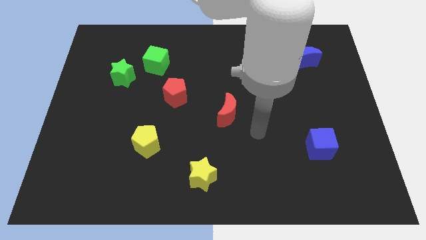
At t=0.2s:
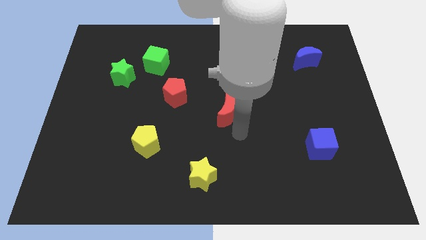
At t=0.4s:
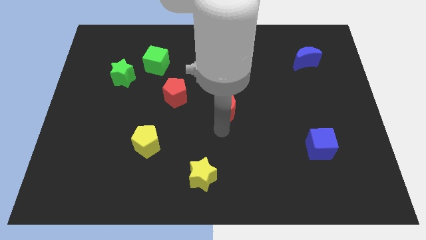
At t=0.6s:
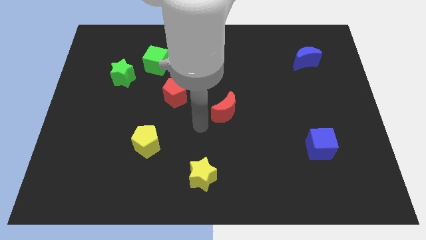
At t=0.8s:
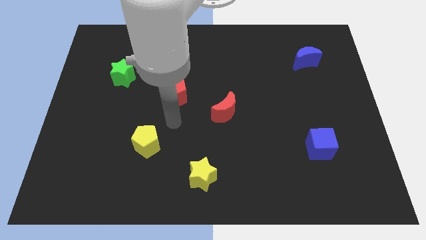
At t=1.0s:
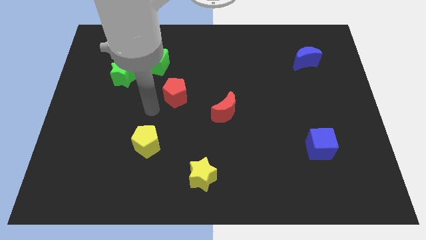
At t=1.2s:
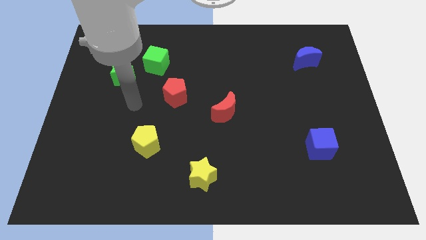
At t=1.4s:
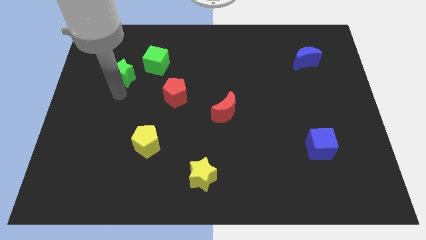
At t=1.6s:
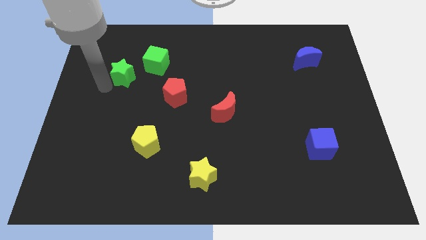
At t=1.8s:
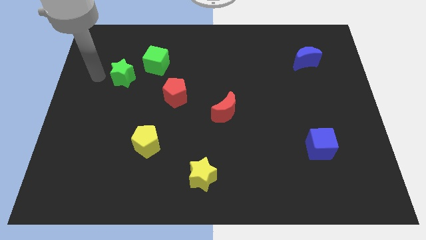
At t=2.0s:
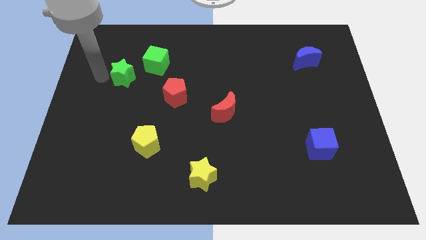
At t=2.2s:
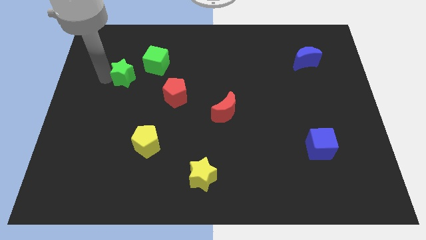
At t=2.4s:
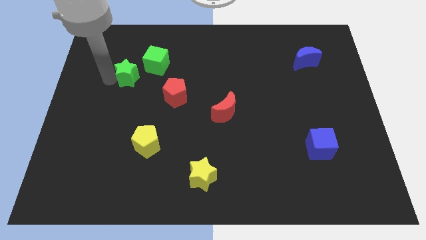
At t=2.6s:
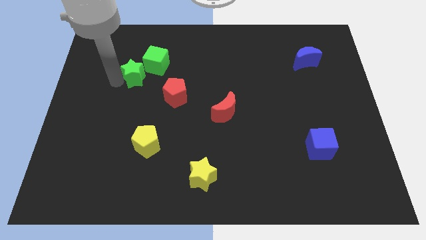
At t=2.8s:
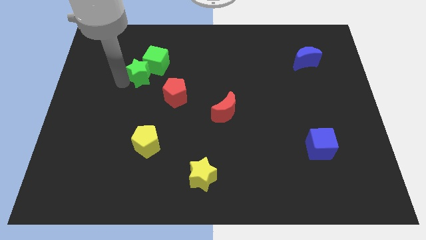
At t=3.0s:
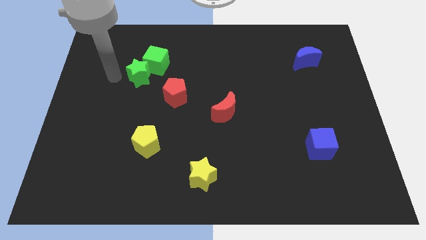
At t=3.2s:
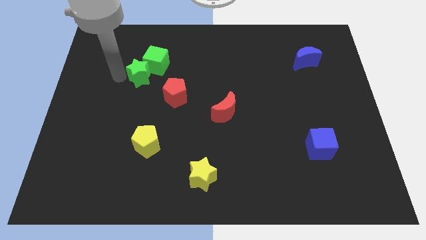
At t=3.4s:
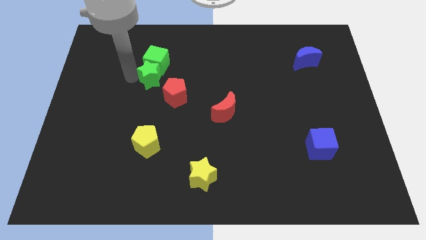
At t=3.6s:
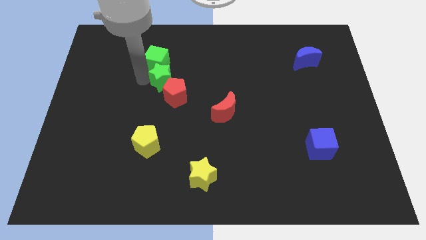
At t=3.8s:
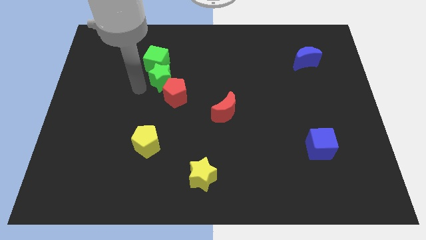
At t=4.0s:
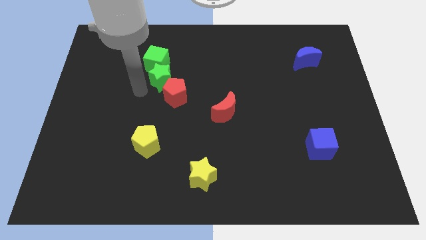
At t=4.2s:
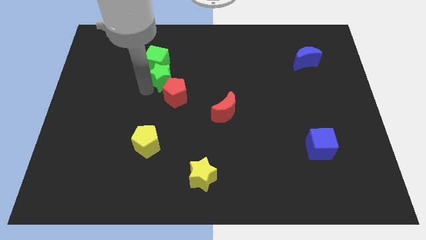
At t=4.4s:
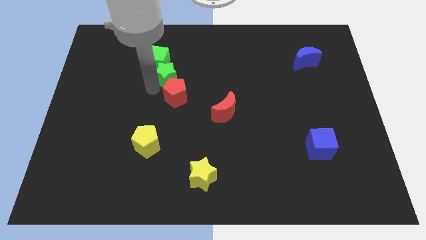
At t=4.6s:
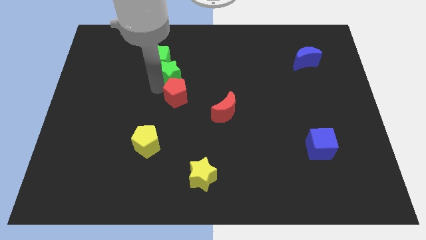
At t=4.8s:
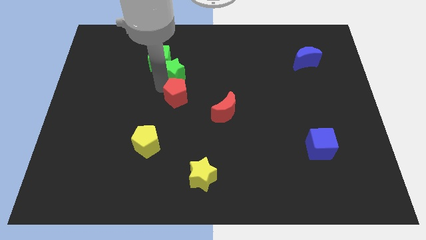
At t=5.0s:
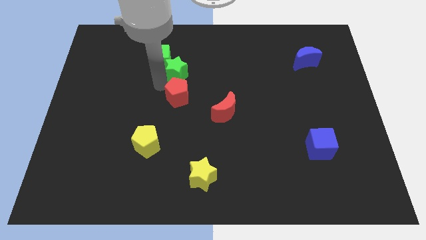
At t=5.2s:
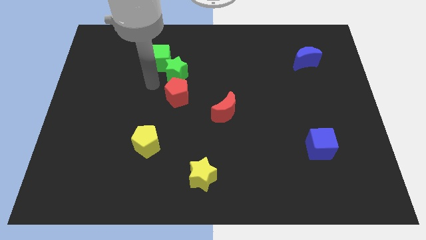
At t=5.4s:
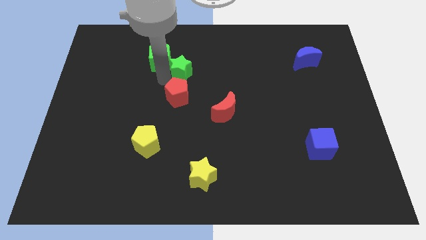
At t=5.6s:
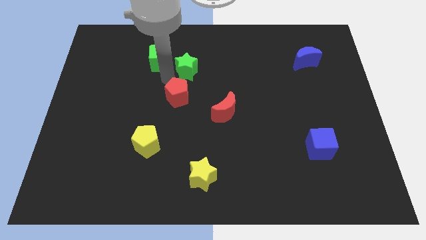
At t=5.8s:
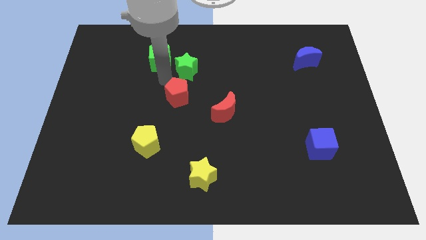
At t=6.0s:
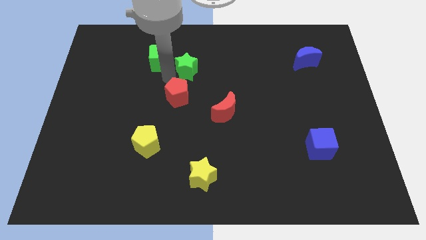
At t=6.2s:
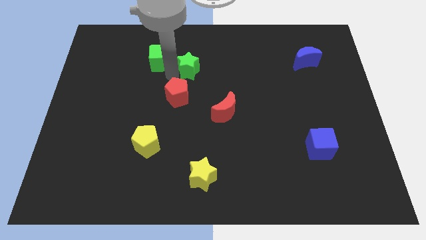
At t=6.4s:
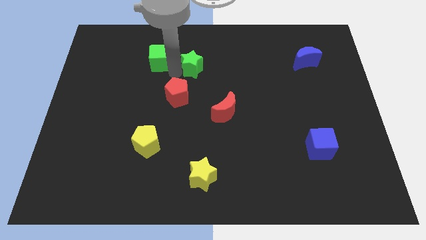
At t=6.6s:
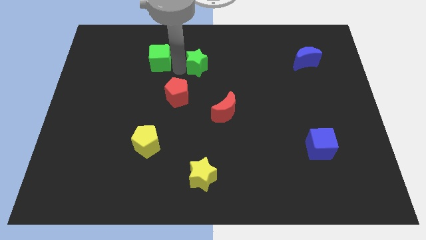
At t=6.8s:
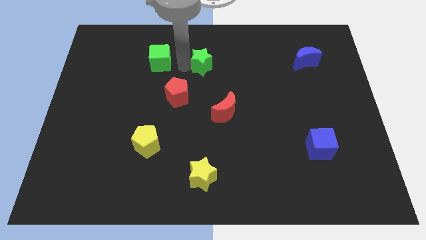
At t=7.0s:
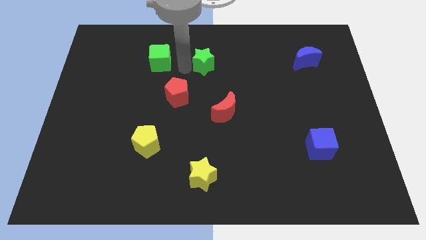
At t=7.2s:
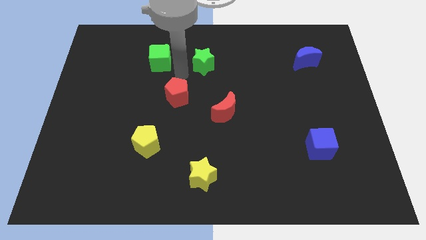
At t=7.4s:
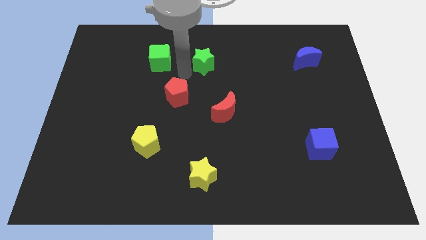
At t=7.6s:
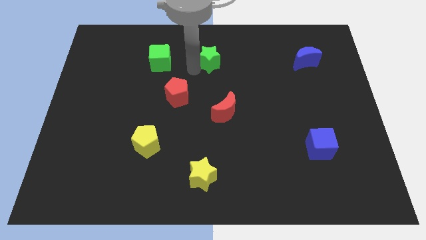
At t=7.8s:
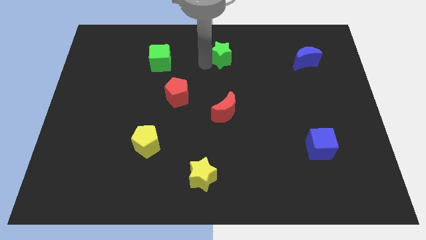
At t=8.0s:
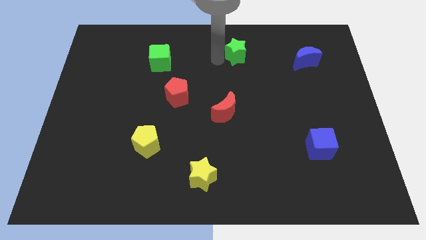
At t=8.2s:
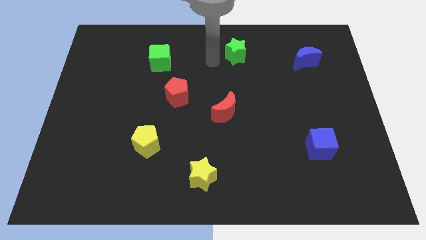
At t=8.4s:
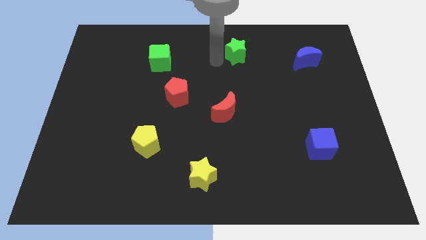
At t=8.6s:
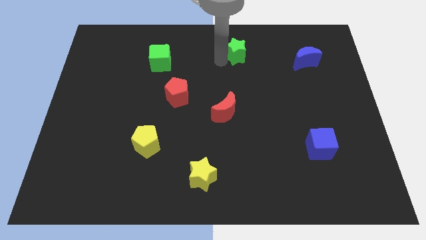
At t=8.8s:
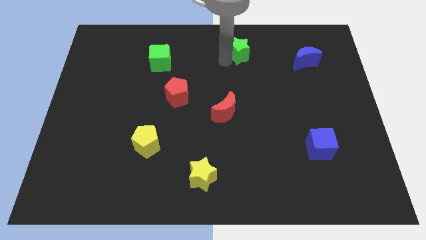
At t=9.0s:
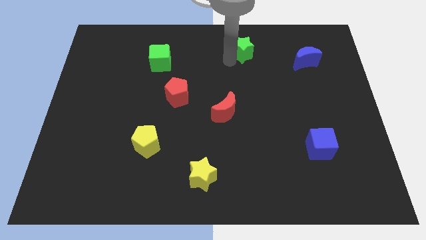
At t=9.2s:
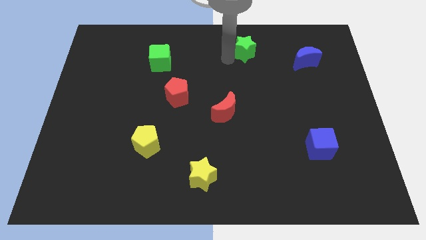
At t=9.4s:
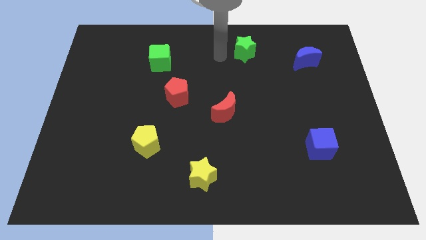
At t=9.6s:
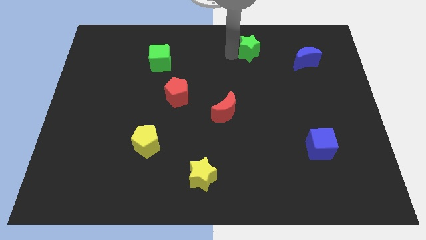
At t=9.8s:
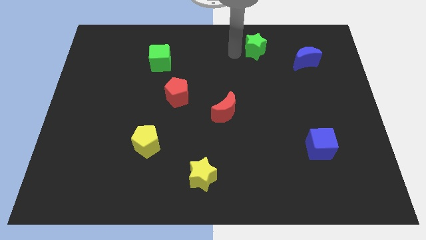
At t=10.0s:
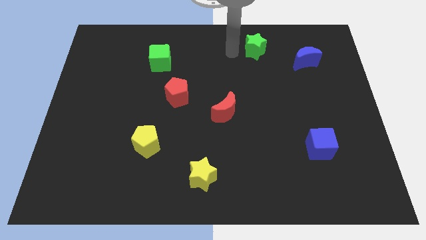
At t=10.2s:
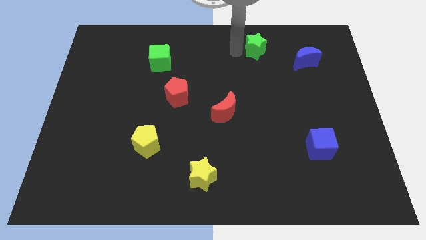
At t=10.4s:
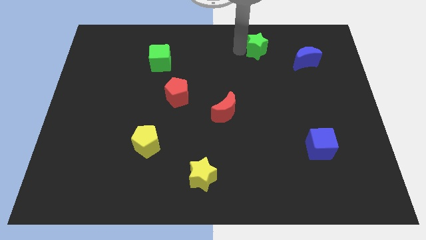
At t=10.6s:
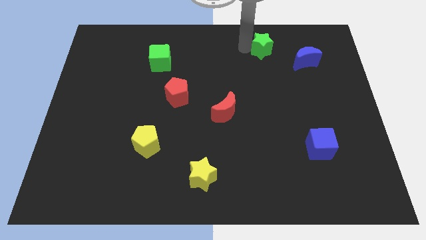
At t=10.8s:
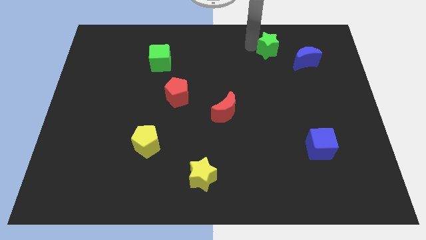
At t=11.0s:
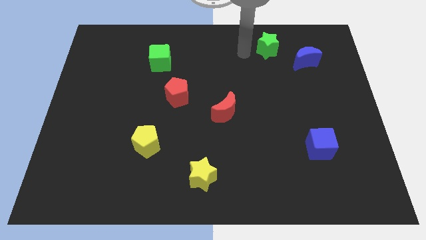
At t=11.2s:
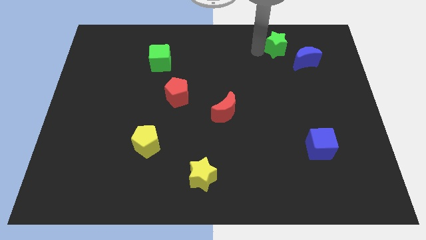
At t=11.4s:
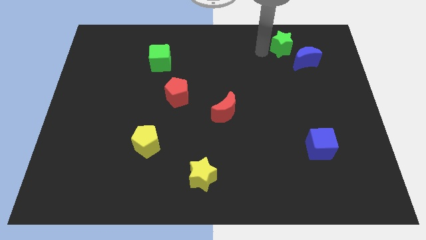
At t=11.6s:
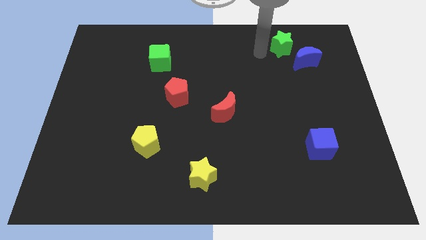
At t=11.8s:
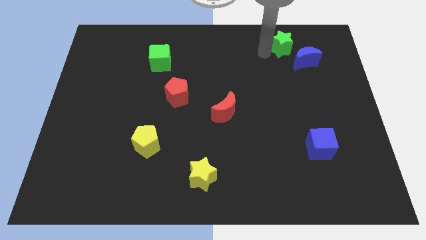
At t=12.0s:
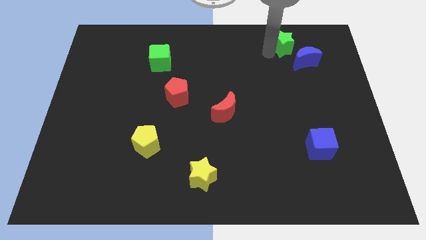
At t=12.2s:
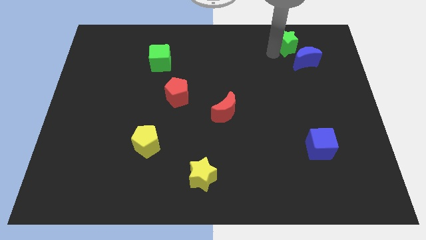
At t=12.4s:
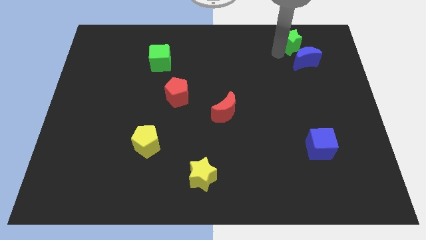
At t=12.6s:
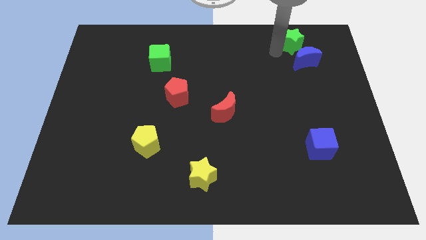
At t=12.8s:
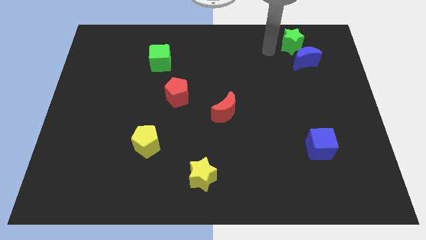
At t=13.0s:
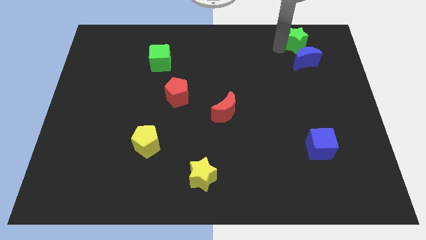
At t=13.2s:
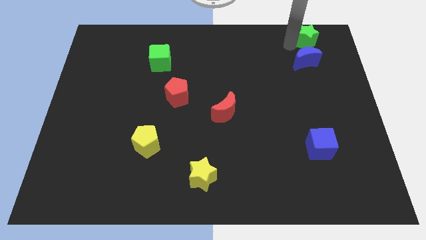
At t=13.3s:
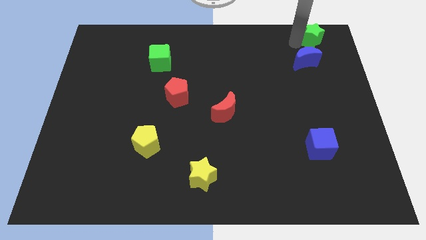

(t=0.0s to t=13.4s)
move the green star to the top right of the board
